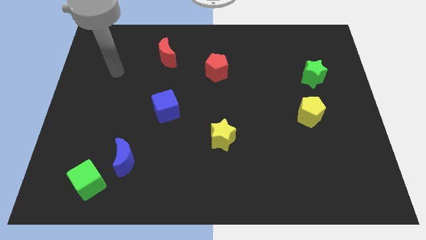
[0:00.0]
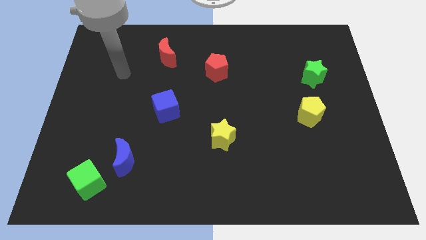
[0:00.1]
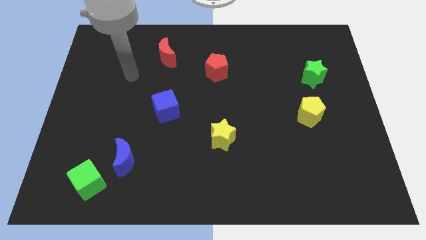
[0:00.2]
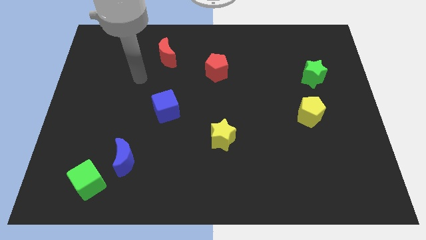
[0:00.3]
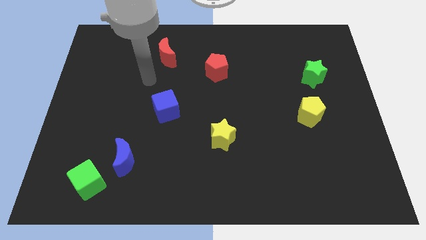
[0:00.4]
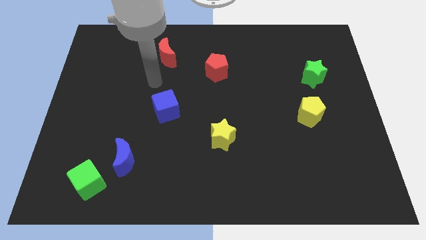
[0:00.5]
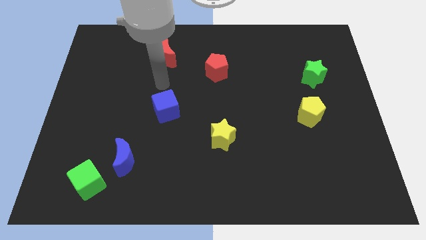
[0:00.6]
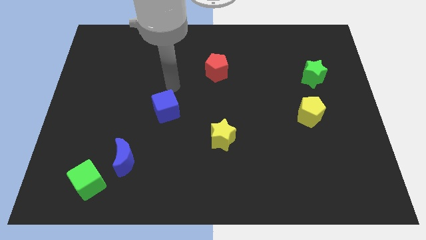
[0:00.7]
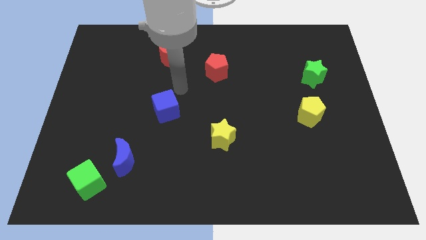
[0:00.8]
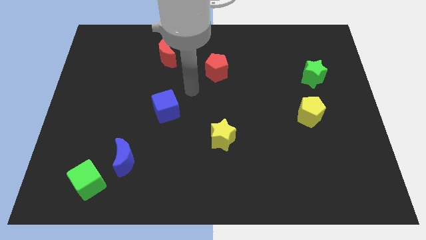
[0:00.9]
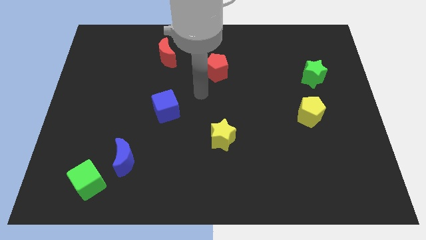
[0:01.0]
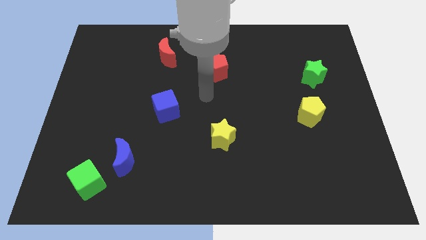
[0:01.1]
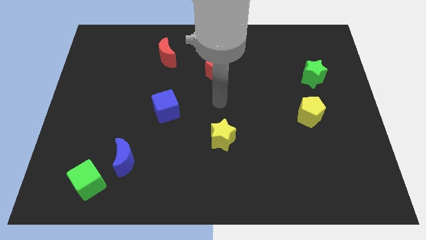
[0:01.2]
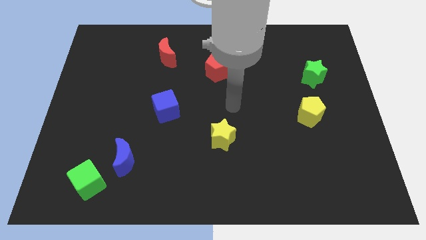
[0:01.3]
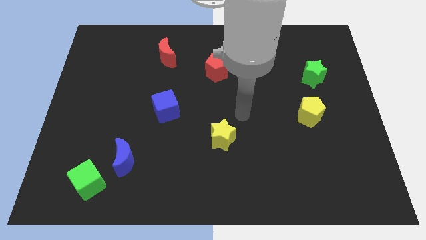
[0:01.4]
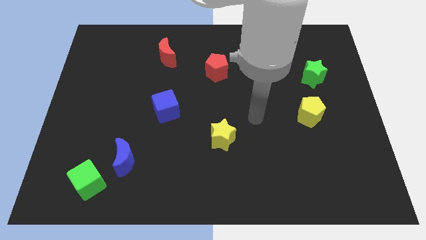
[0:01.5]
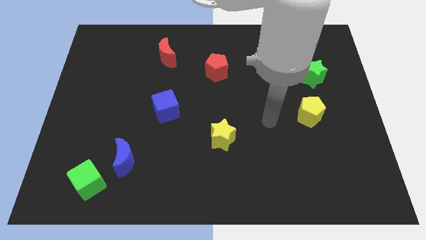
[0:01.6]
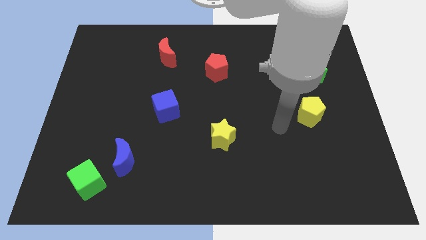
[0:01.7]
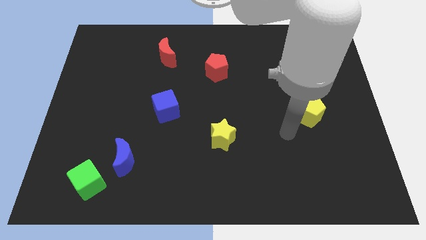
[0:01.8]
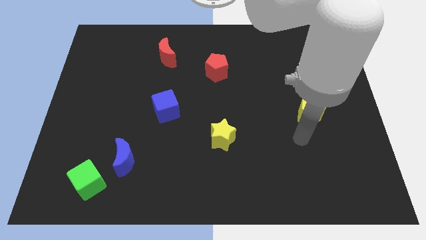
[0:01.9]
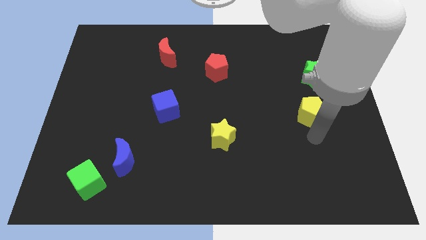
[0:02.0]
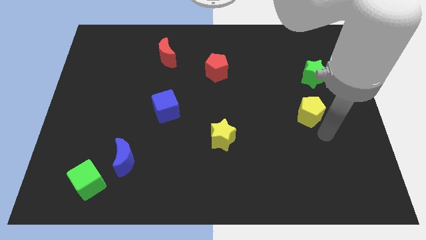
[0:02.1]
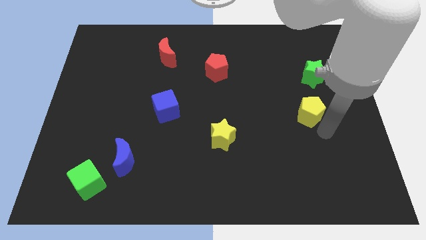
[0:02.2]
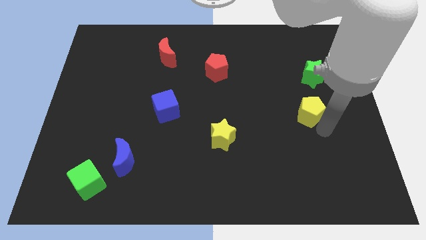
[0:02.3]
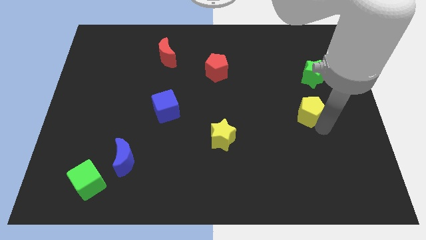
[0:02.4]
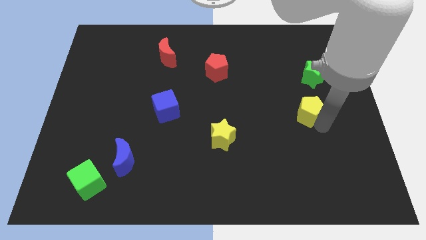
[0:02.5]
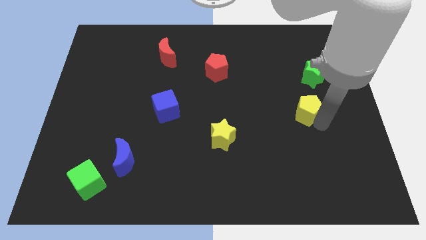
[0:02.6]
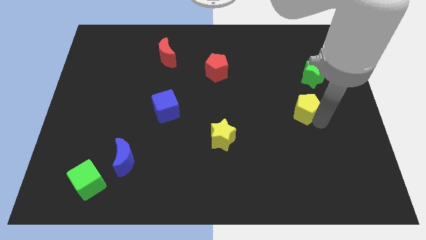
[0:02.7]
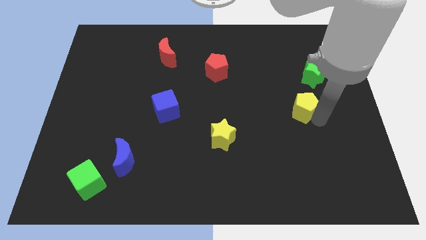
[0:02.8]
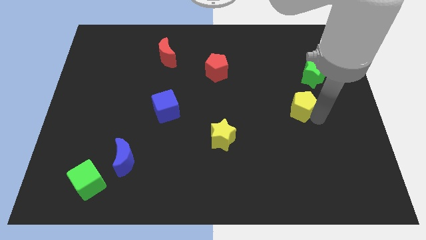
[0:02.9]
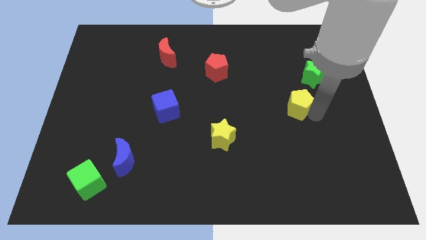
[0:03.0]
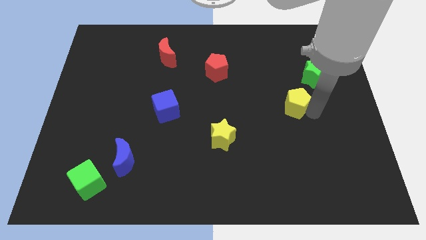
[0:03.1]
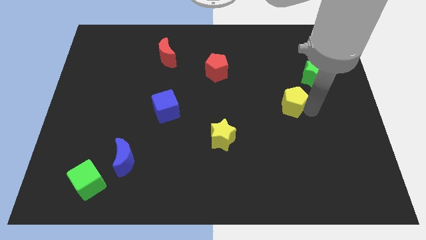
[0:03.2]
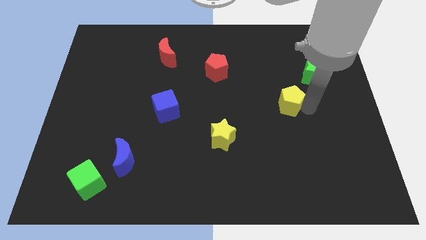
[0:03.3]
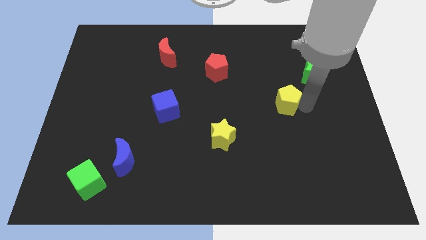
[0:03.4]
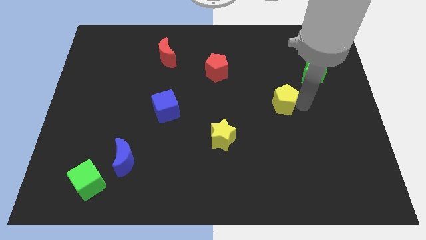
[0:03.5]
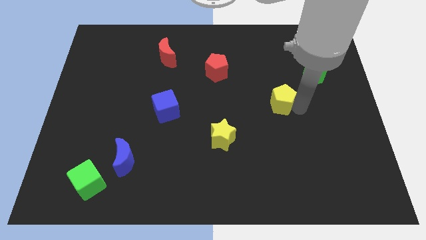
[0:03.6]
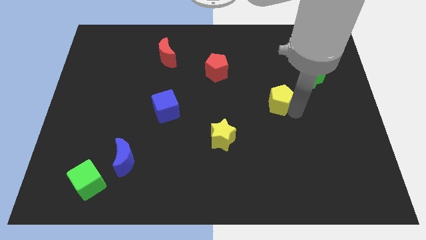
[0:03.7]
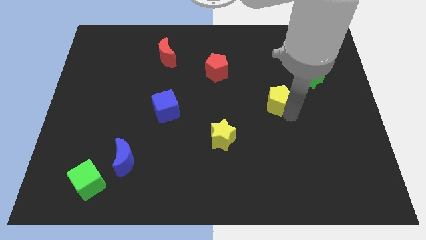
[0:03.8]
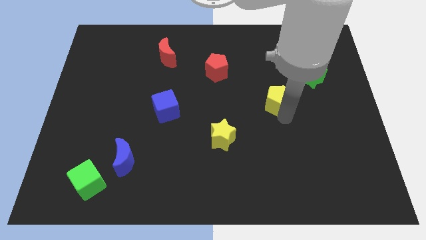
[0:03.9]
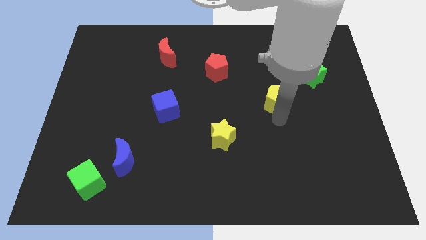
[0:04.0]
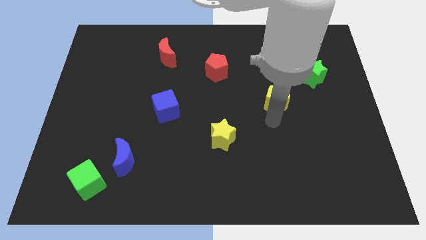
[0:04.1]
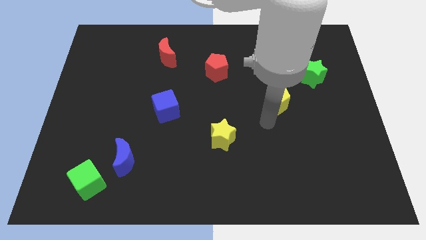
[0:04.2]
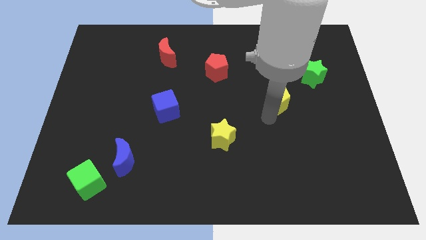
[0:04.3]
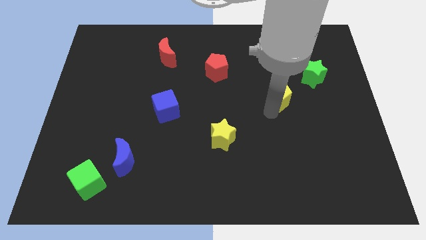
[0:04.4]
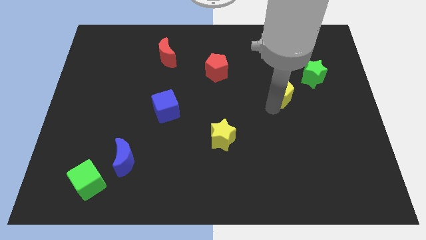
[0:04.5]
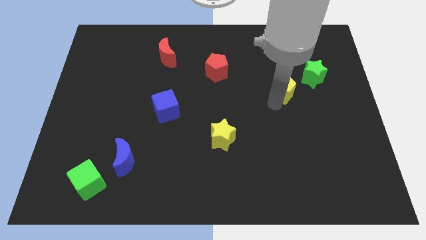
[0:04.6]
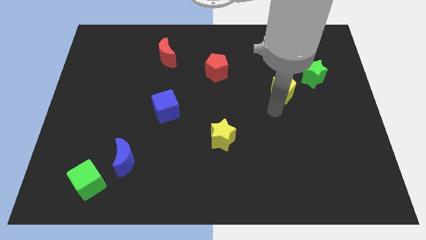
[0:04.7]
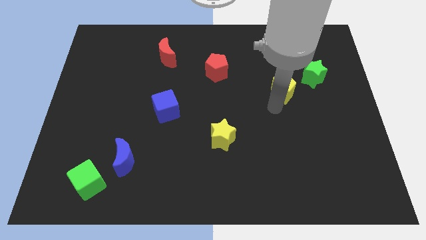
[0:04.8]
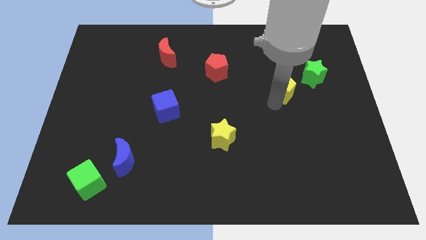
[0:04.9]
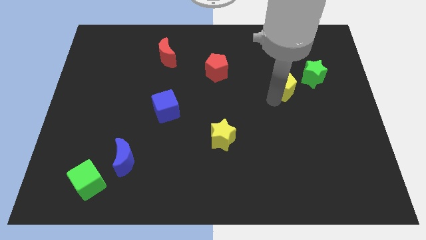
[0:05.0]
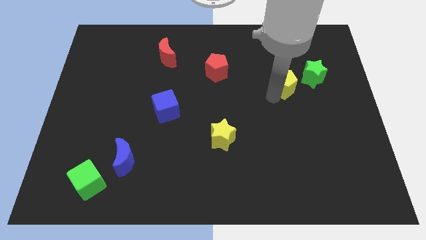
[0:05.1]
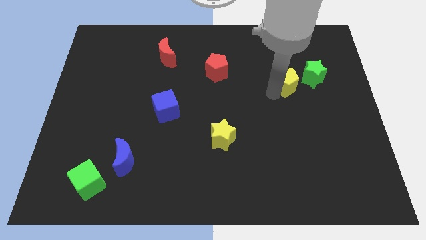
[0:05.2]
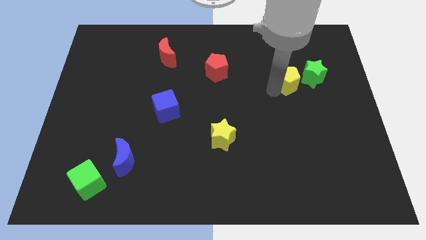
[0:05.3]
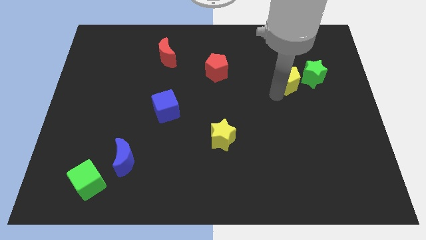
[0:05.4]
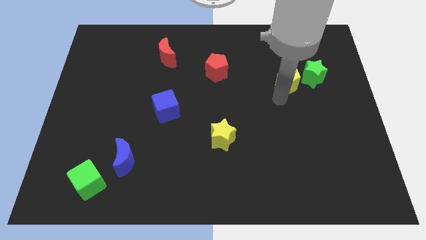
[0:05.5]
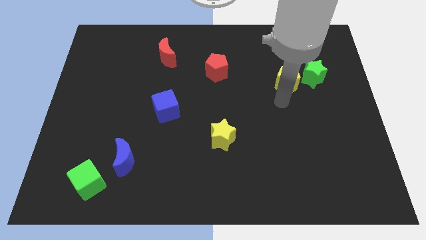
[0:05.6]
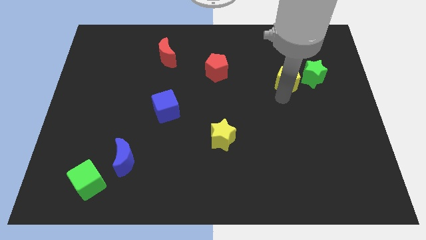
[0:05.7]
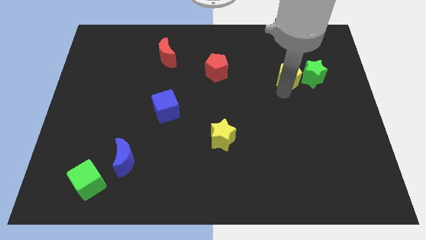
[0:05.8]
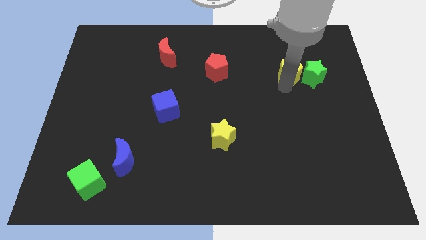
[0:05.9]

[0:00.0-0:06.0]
move the yellow pentagon to the top left side of the green star
